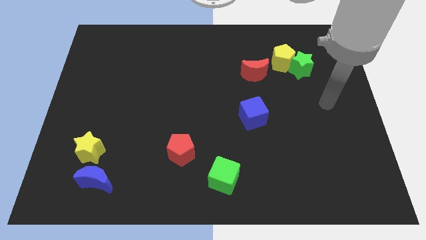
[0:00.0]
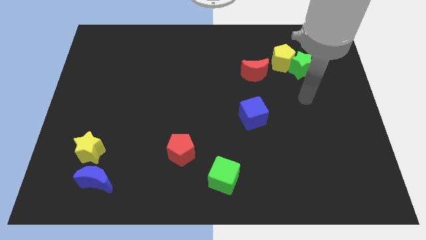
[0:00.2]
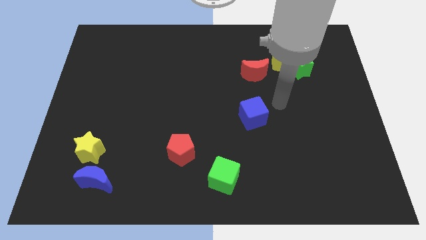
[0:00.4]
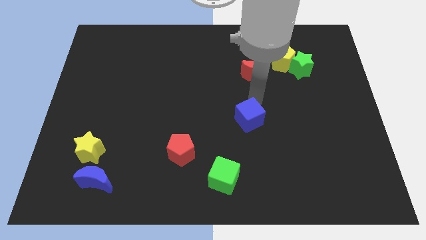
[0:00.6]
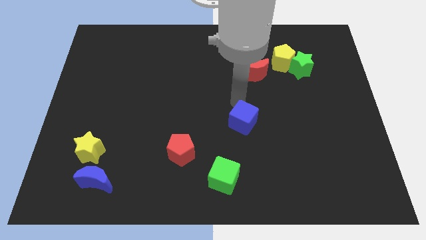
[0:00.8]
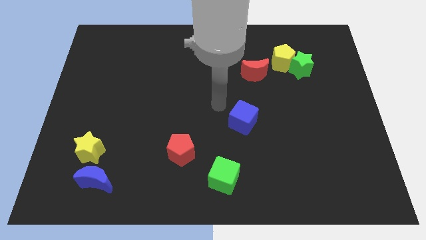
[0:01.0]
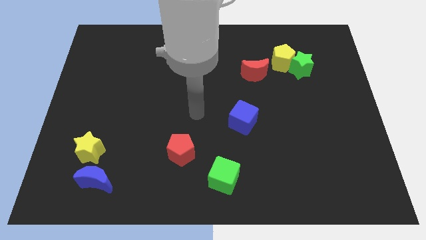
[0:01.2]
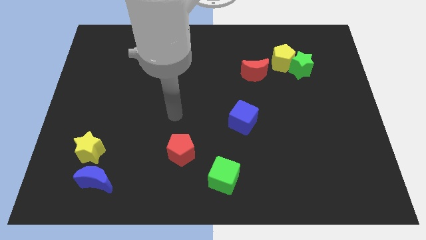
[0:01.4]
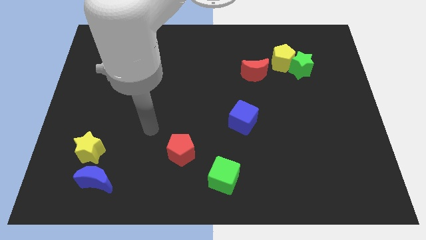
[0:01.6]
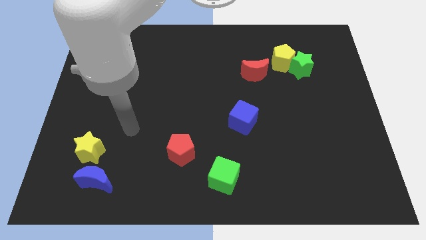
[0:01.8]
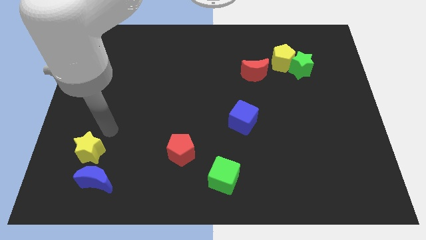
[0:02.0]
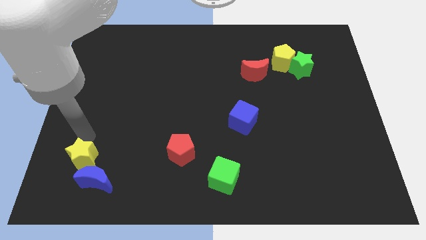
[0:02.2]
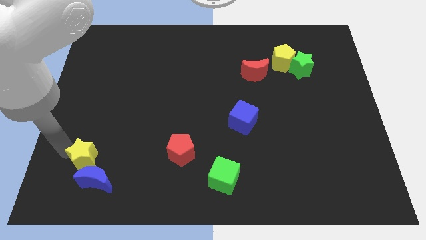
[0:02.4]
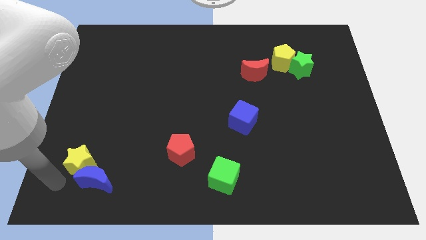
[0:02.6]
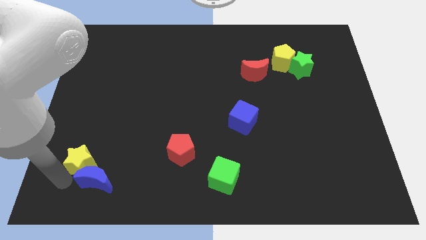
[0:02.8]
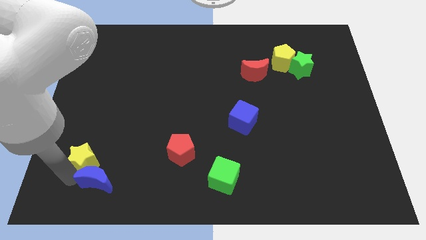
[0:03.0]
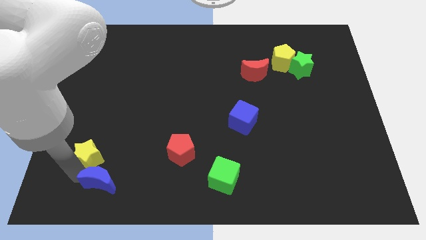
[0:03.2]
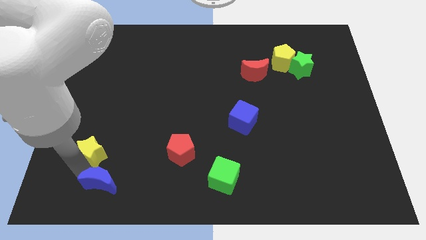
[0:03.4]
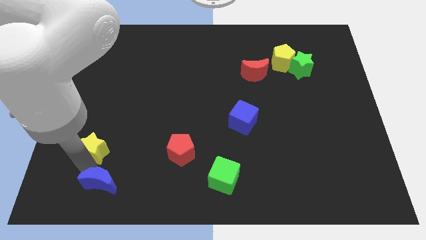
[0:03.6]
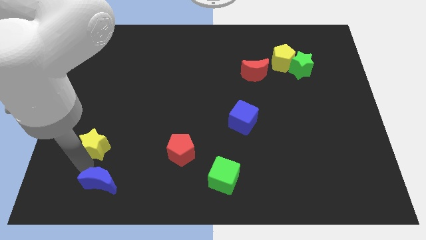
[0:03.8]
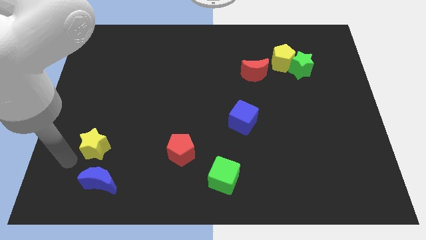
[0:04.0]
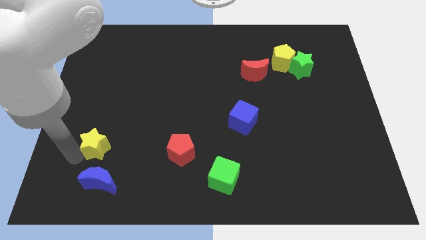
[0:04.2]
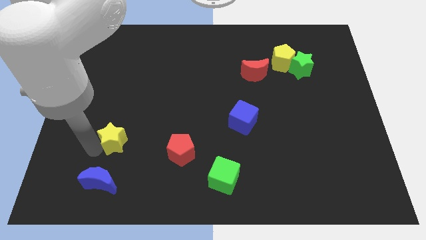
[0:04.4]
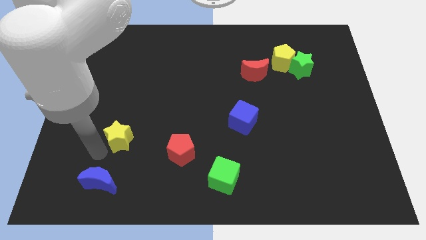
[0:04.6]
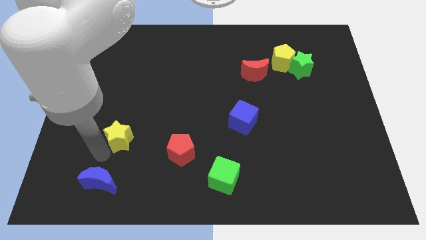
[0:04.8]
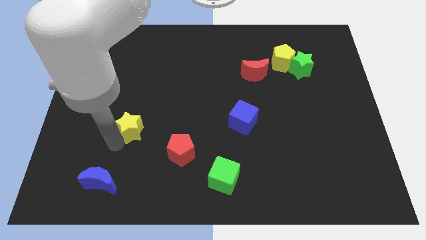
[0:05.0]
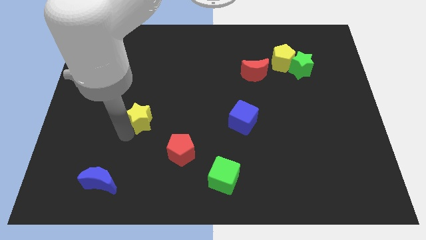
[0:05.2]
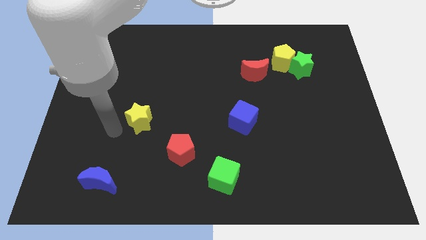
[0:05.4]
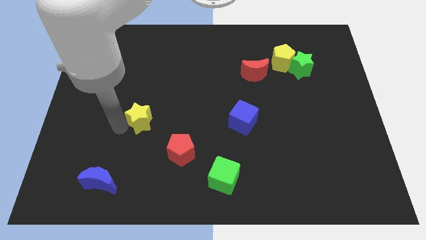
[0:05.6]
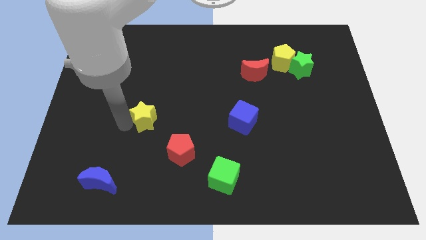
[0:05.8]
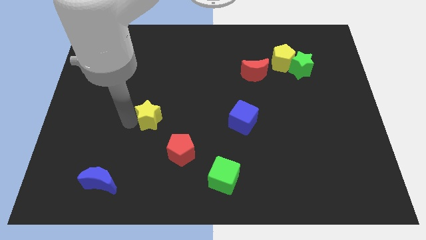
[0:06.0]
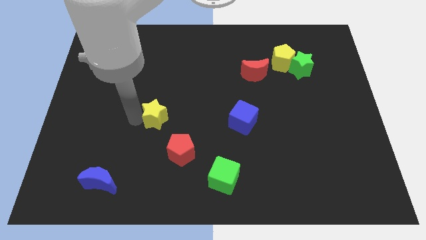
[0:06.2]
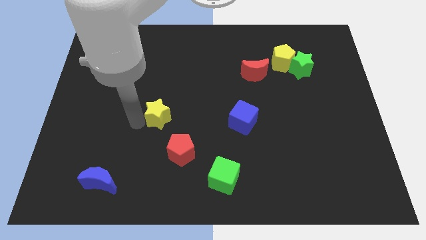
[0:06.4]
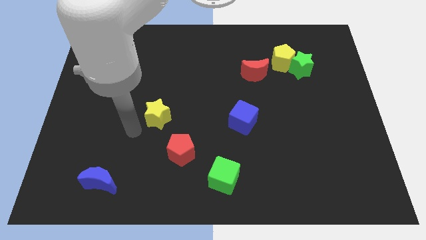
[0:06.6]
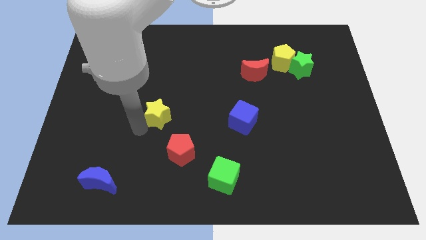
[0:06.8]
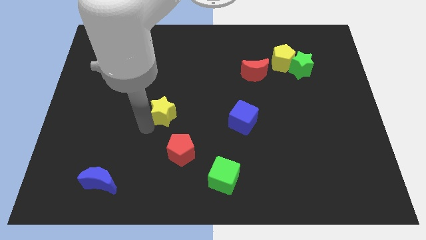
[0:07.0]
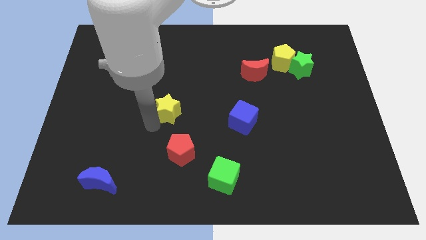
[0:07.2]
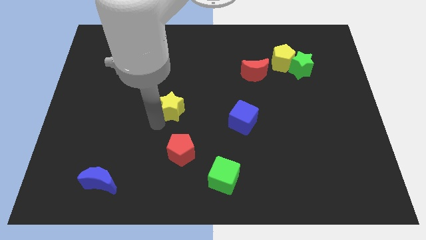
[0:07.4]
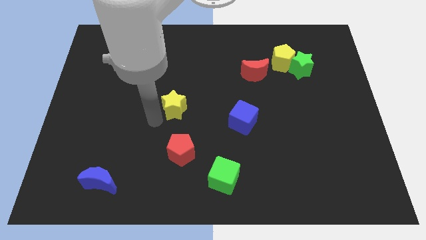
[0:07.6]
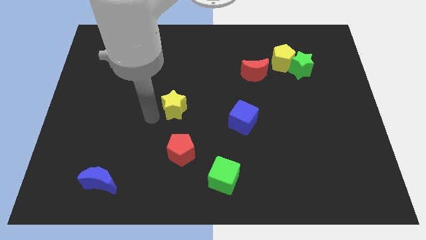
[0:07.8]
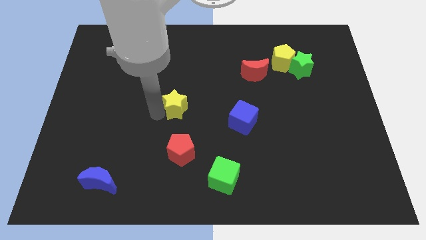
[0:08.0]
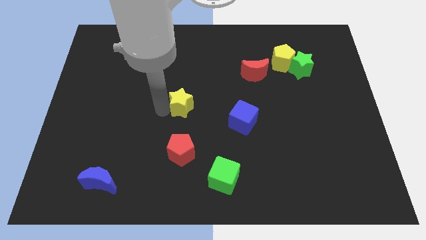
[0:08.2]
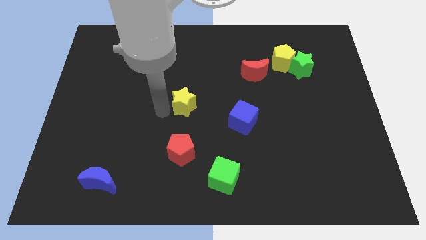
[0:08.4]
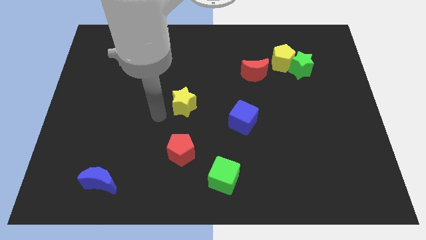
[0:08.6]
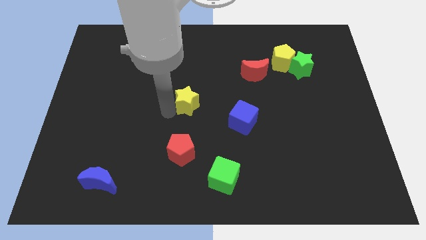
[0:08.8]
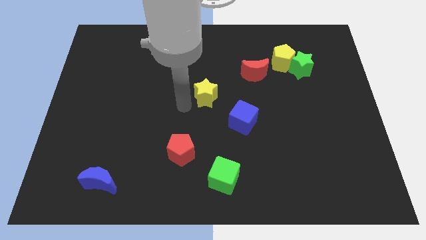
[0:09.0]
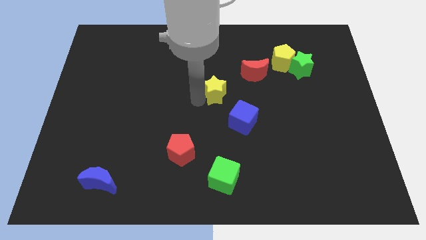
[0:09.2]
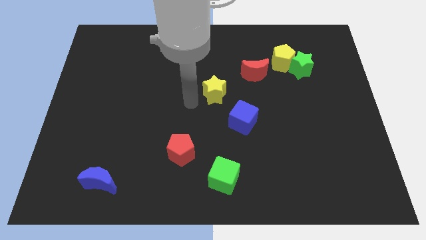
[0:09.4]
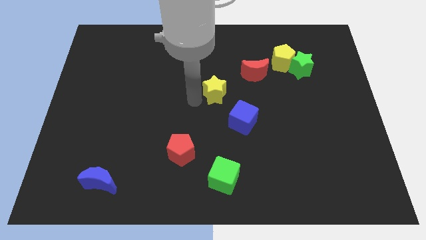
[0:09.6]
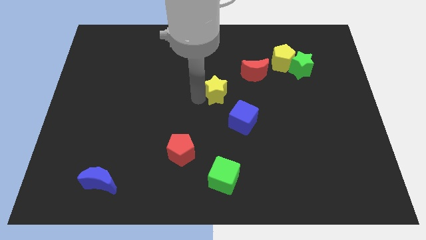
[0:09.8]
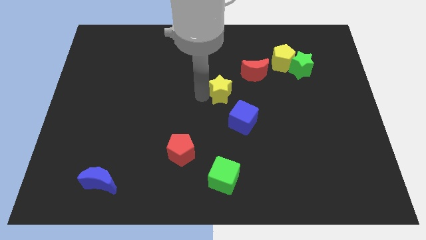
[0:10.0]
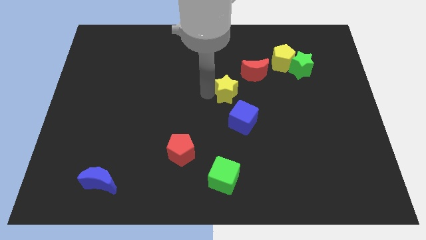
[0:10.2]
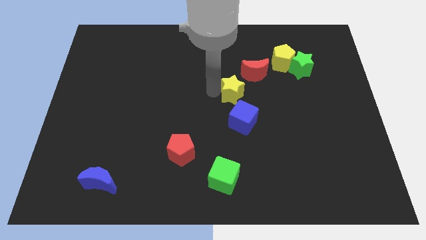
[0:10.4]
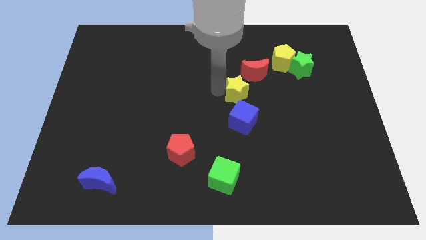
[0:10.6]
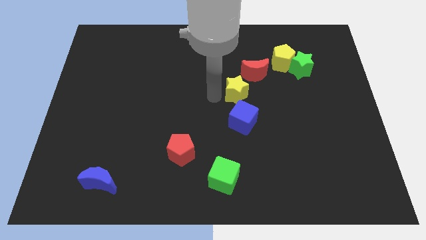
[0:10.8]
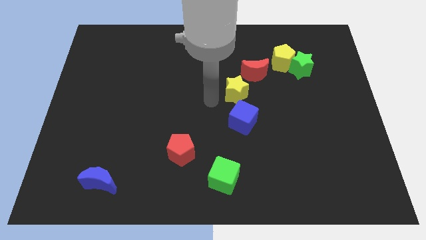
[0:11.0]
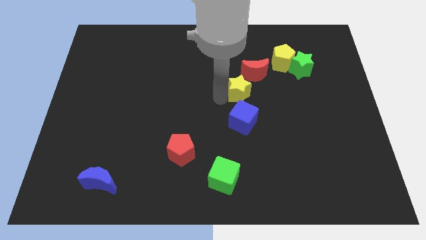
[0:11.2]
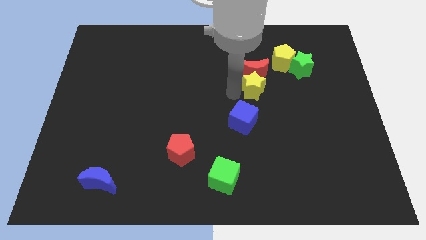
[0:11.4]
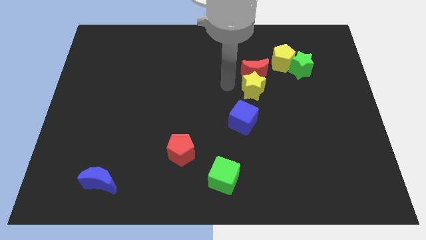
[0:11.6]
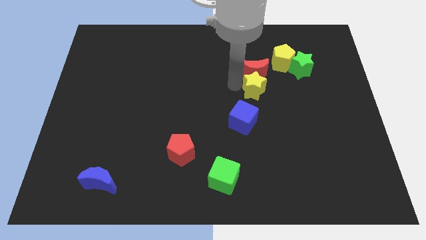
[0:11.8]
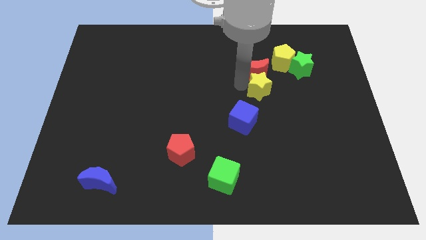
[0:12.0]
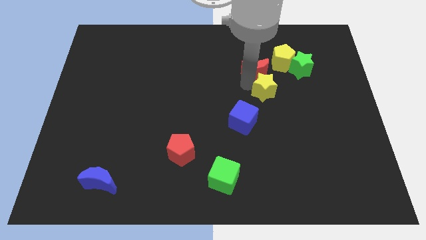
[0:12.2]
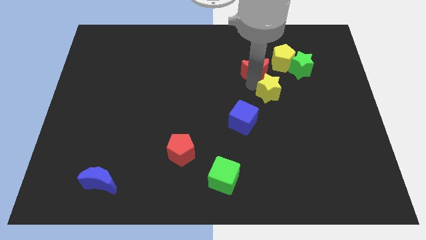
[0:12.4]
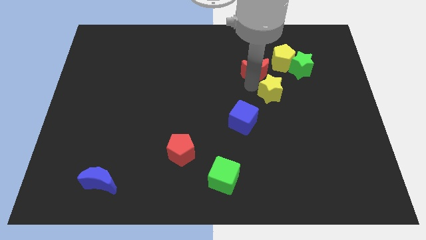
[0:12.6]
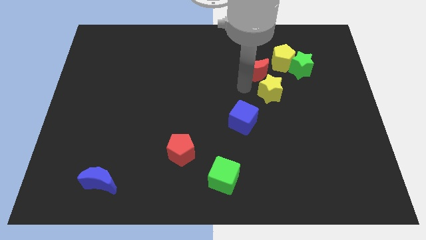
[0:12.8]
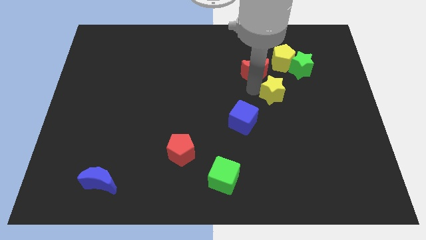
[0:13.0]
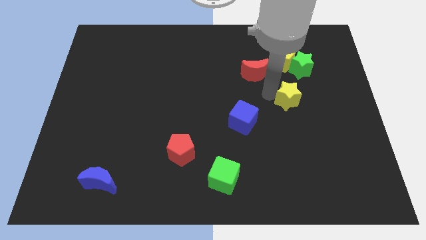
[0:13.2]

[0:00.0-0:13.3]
slide the yellow star to the bottom of the green star

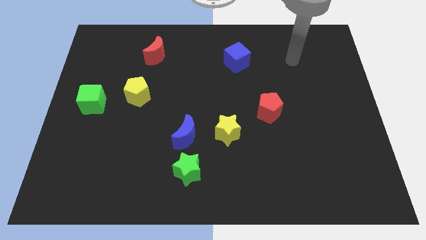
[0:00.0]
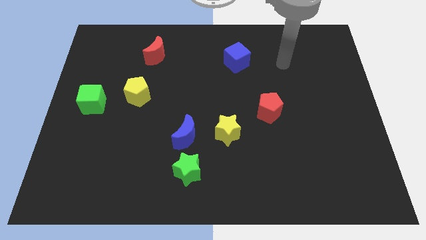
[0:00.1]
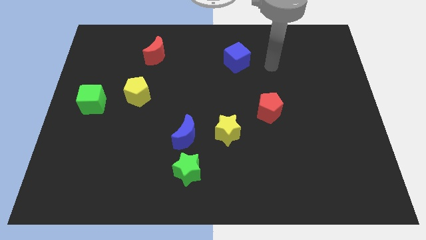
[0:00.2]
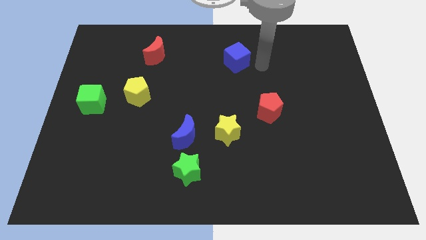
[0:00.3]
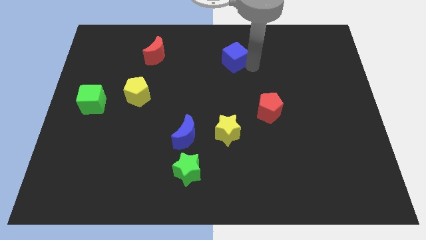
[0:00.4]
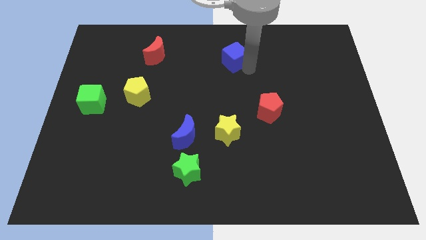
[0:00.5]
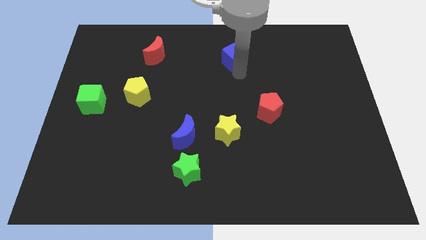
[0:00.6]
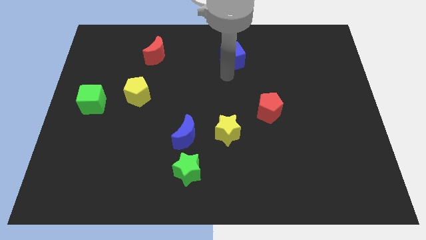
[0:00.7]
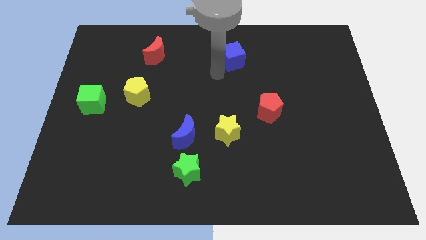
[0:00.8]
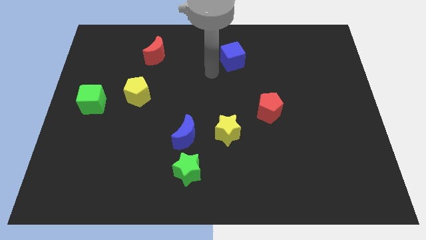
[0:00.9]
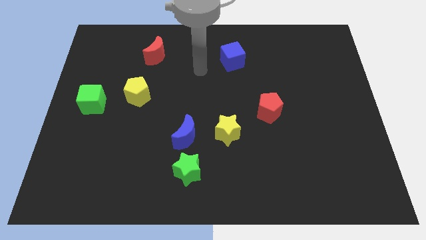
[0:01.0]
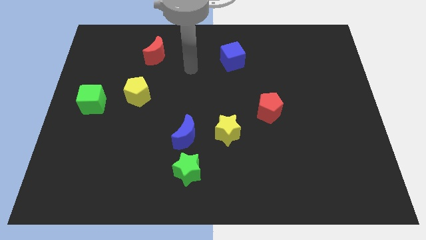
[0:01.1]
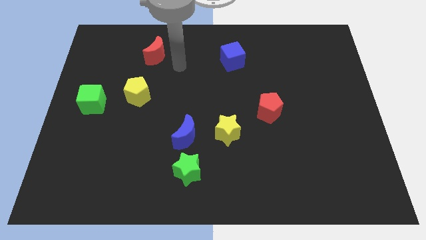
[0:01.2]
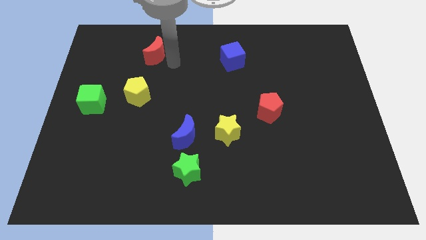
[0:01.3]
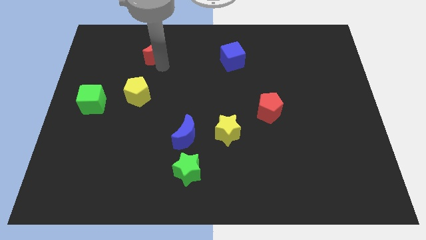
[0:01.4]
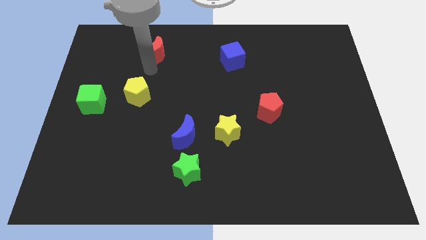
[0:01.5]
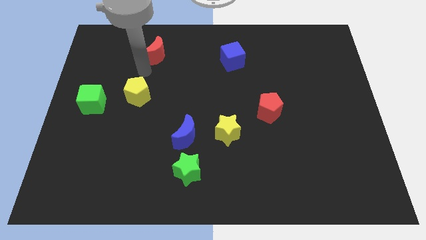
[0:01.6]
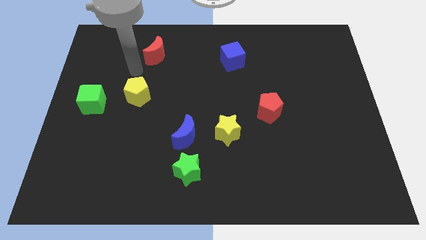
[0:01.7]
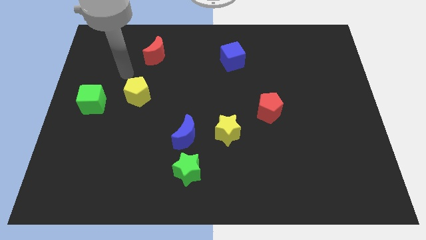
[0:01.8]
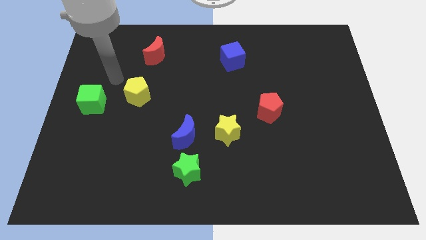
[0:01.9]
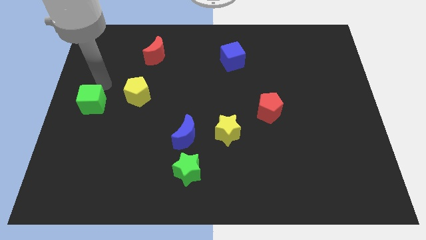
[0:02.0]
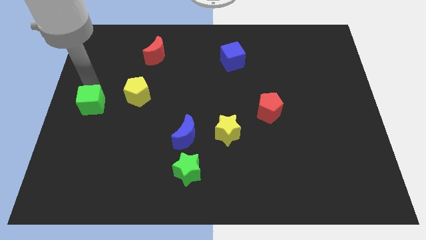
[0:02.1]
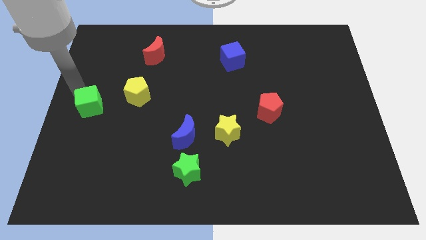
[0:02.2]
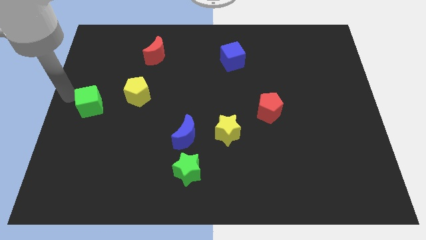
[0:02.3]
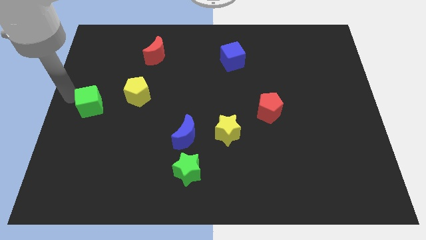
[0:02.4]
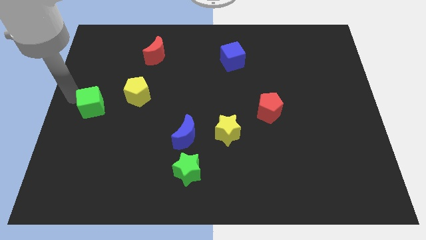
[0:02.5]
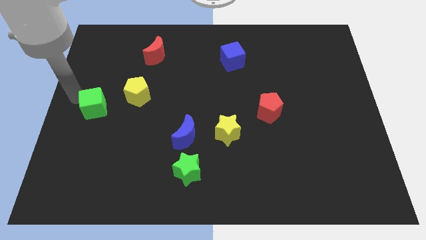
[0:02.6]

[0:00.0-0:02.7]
slide the green cube to the bottom left side of the yellow pentagon
